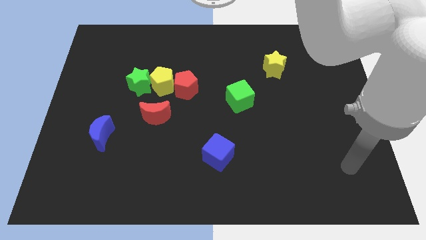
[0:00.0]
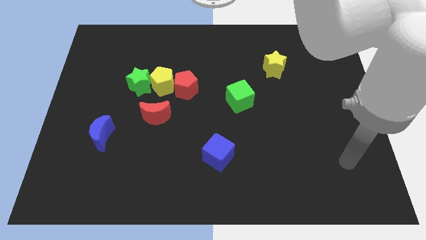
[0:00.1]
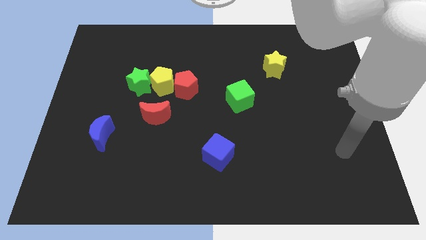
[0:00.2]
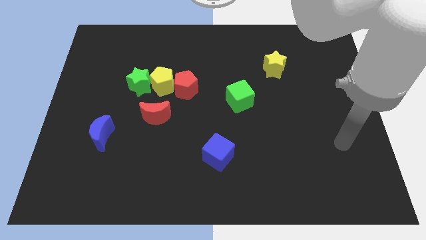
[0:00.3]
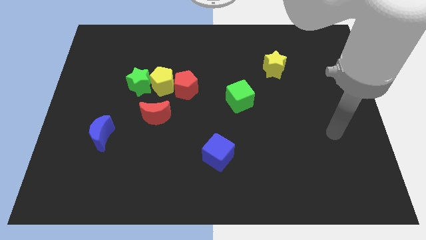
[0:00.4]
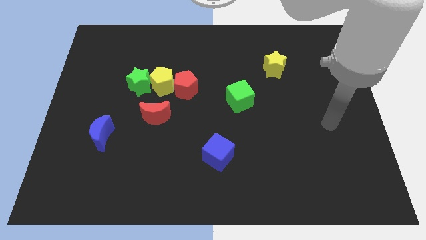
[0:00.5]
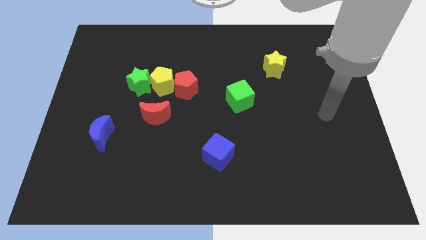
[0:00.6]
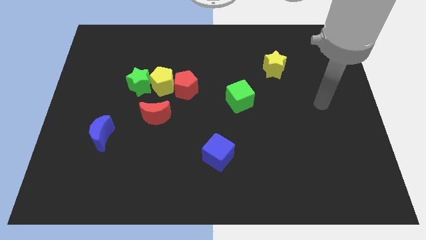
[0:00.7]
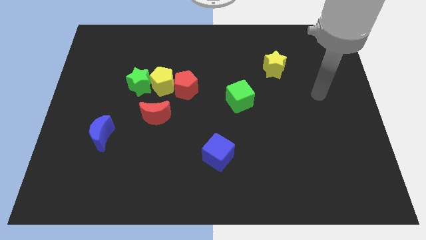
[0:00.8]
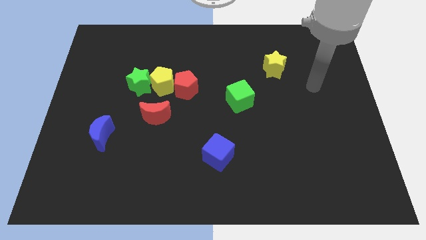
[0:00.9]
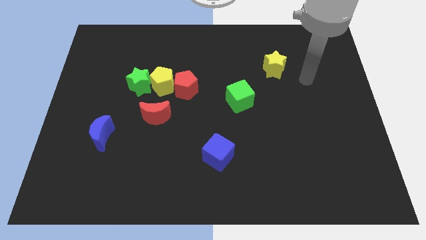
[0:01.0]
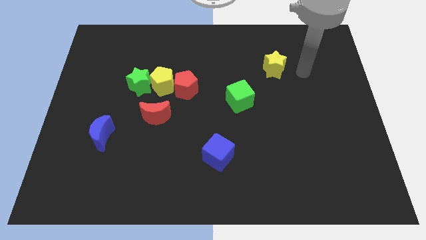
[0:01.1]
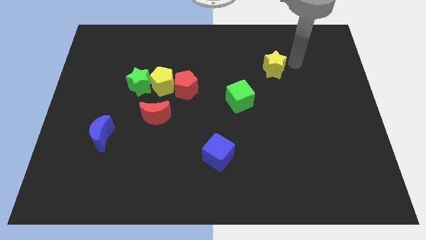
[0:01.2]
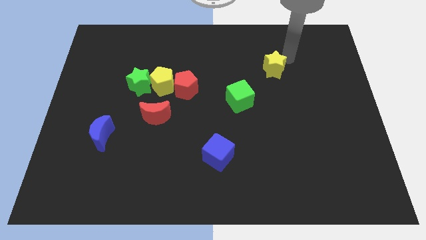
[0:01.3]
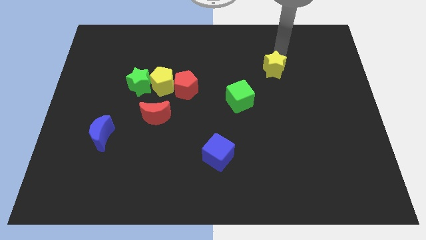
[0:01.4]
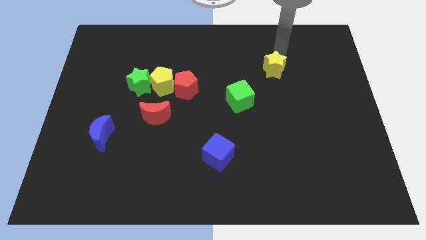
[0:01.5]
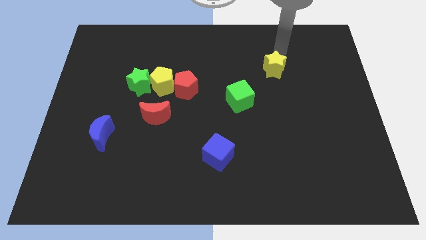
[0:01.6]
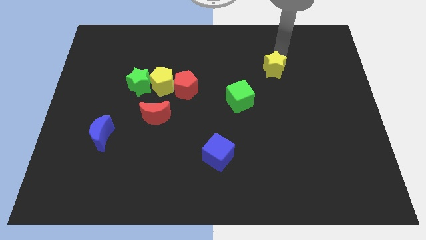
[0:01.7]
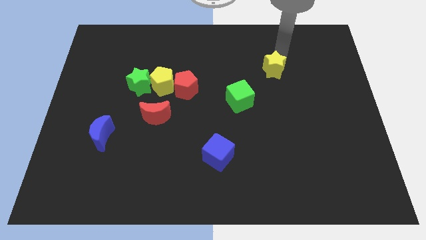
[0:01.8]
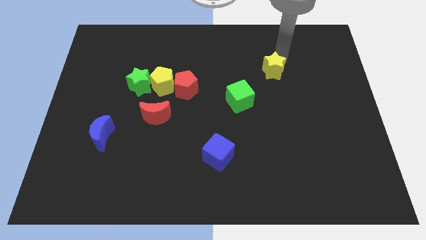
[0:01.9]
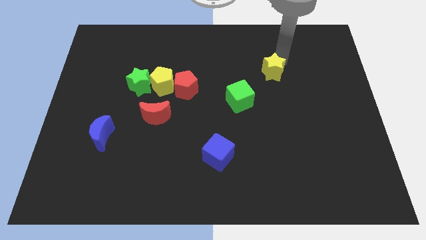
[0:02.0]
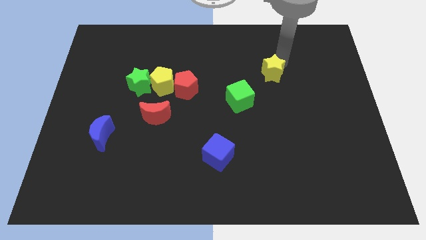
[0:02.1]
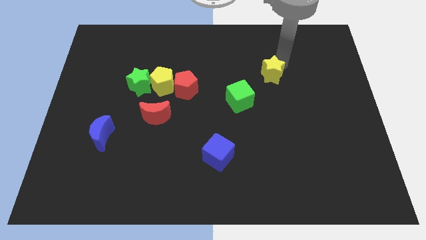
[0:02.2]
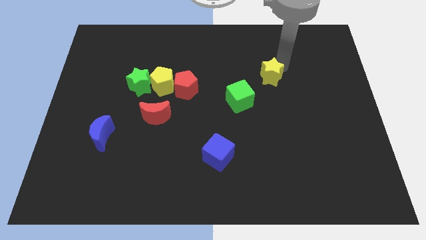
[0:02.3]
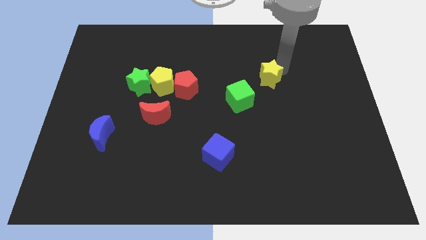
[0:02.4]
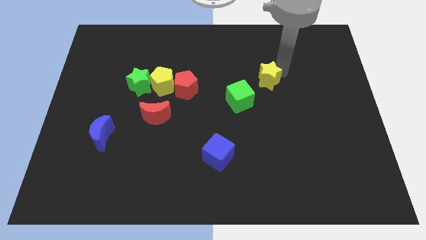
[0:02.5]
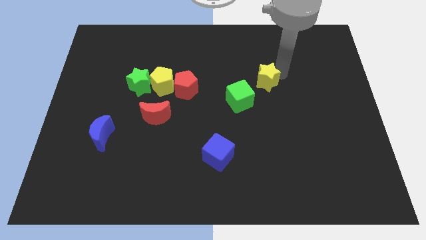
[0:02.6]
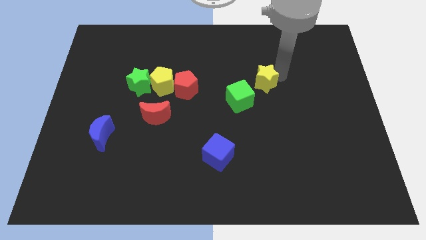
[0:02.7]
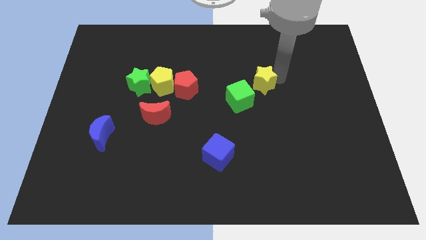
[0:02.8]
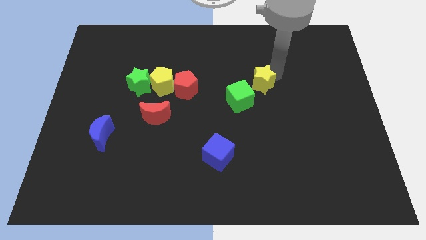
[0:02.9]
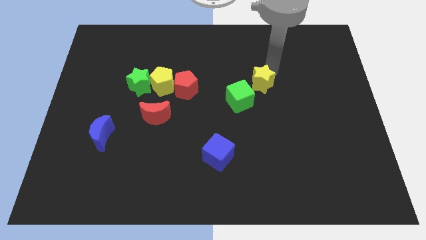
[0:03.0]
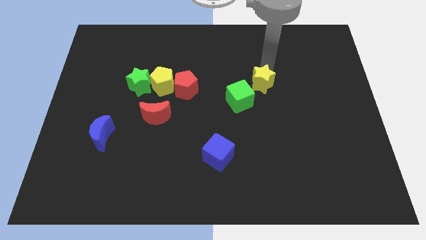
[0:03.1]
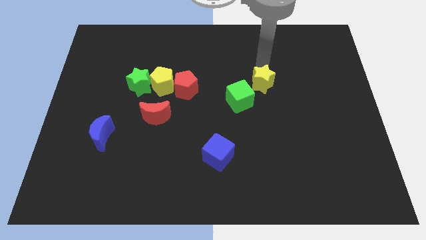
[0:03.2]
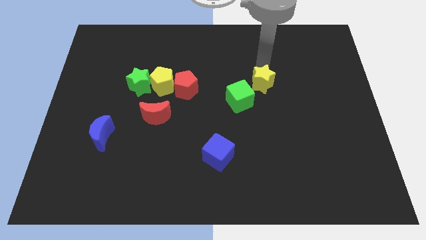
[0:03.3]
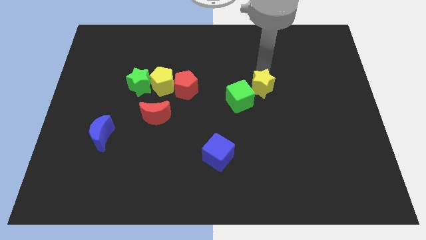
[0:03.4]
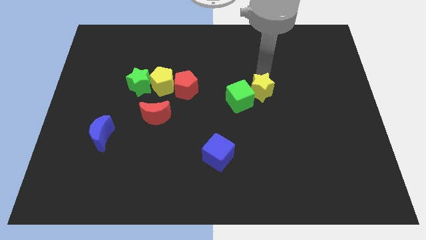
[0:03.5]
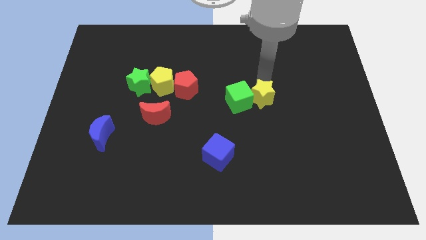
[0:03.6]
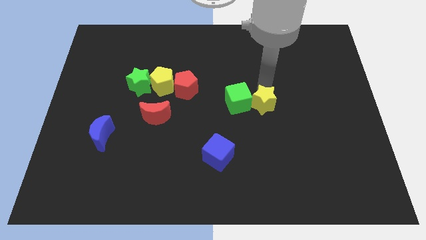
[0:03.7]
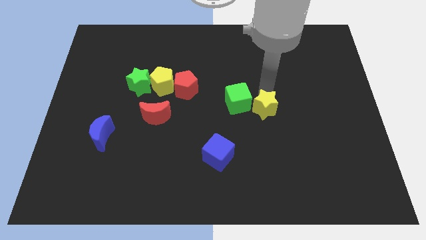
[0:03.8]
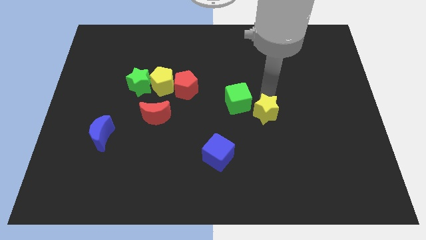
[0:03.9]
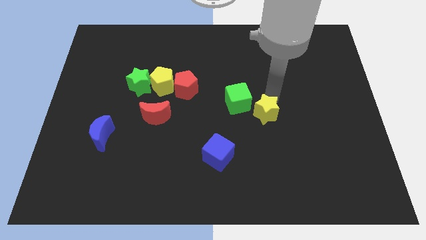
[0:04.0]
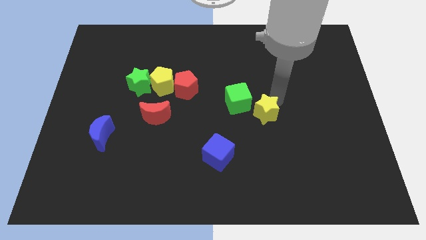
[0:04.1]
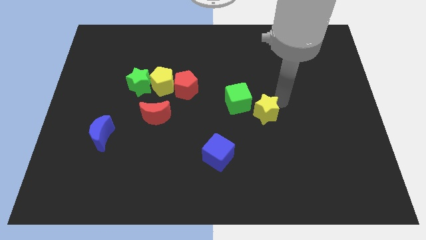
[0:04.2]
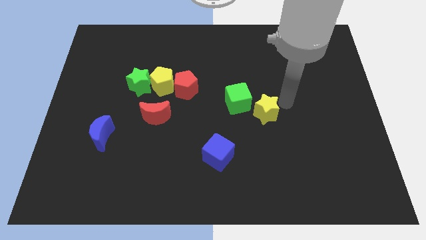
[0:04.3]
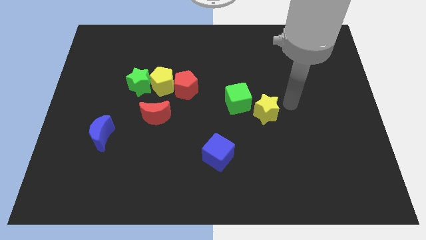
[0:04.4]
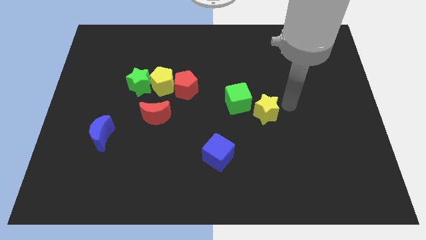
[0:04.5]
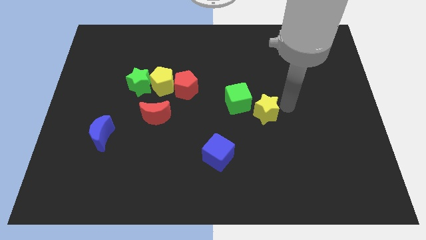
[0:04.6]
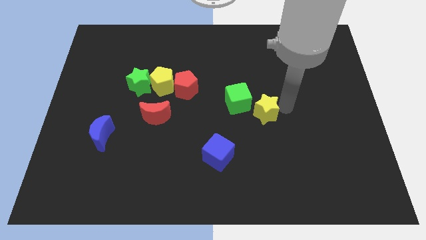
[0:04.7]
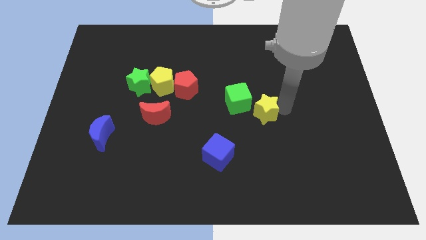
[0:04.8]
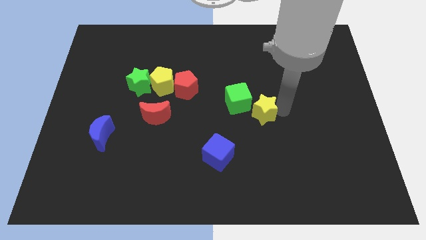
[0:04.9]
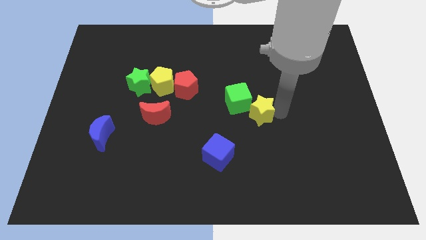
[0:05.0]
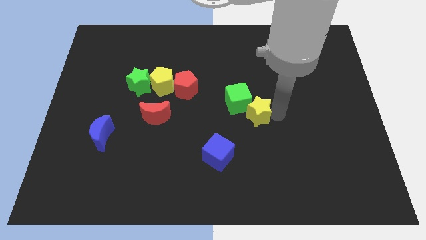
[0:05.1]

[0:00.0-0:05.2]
move the yellow star to the bottom of the green cube

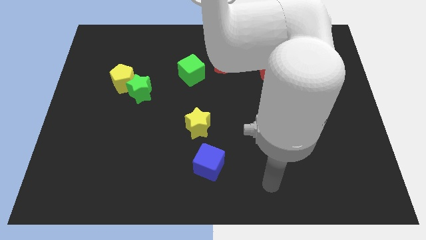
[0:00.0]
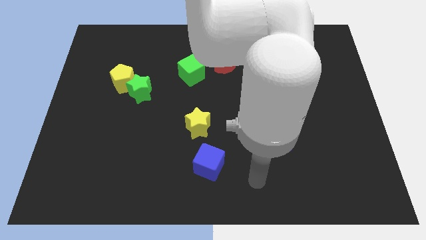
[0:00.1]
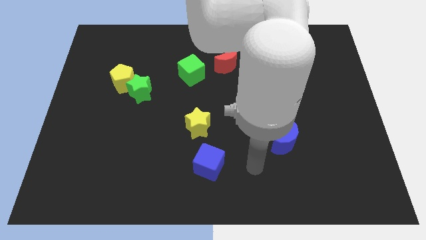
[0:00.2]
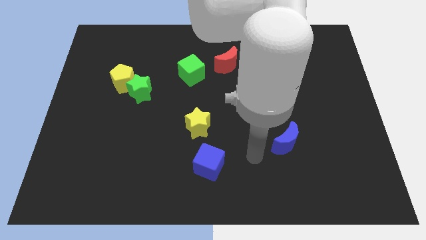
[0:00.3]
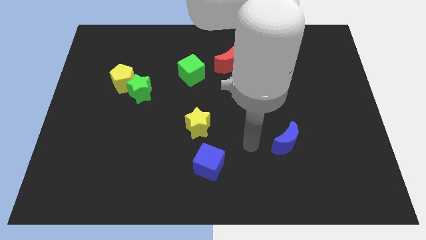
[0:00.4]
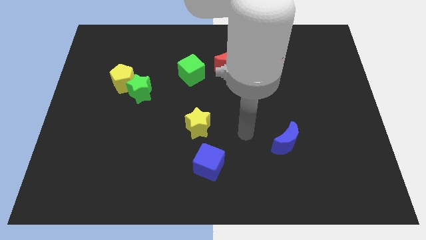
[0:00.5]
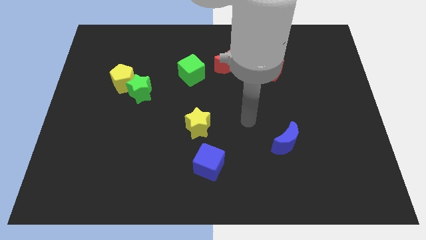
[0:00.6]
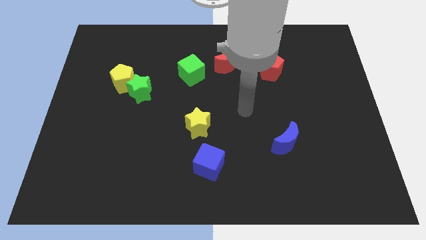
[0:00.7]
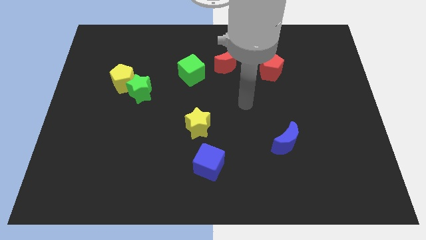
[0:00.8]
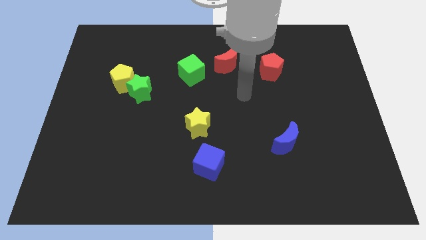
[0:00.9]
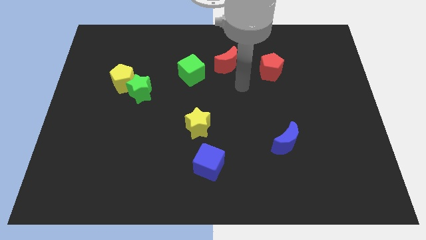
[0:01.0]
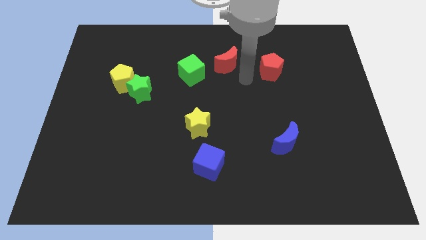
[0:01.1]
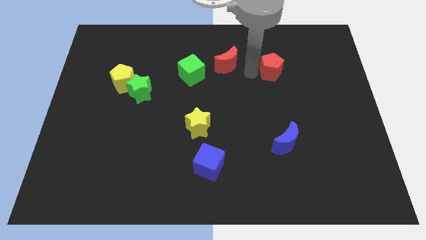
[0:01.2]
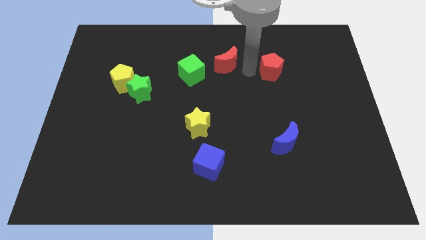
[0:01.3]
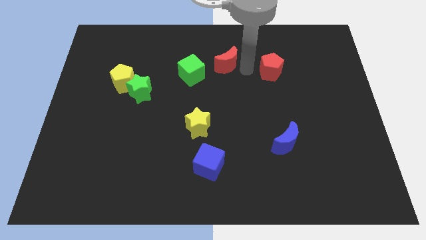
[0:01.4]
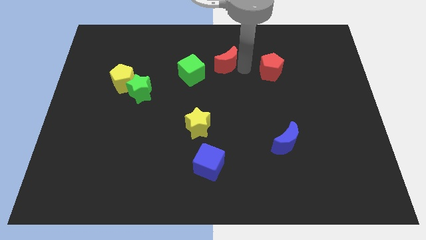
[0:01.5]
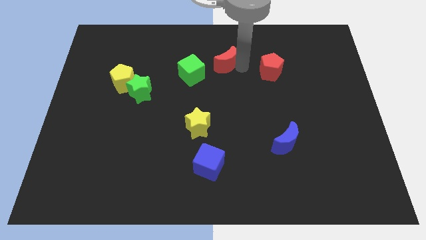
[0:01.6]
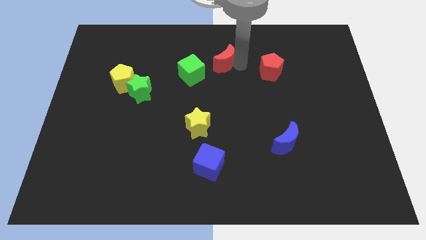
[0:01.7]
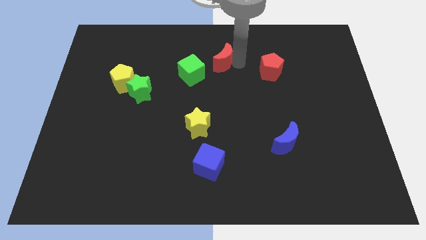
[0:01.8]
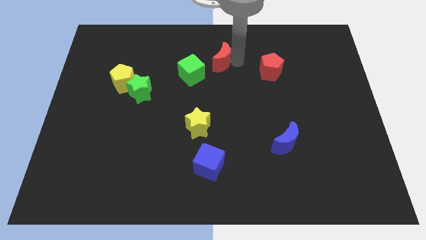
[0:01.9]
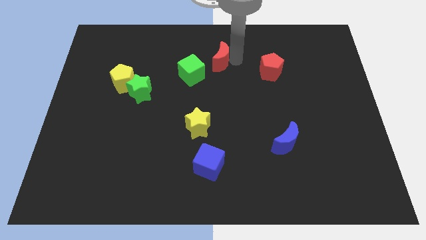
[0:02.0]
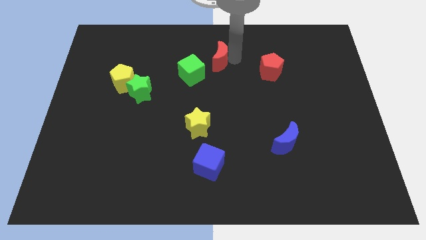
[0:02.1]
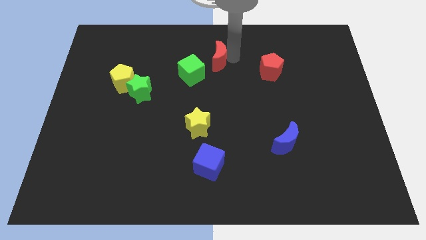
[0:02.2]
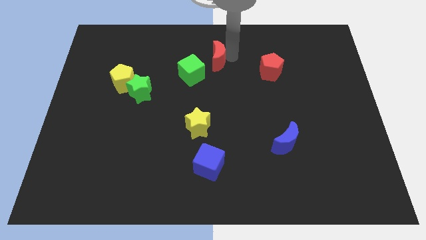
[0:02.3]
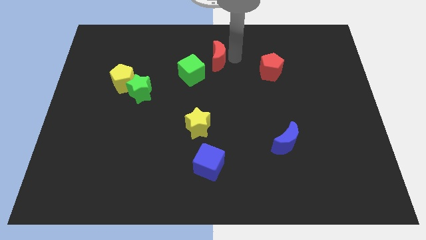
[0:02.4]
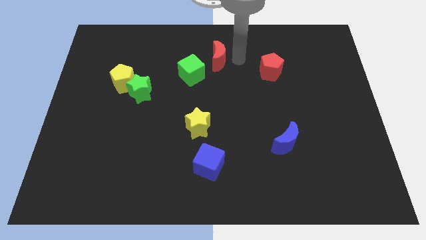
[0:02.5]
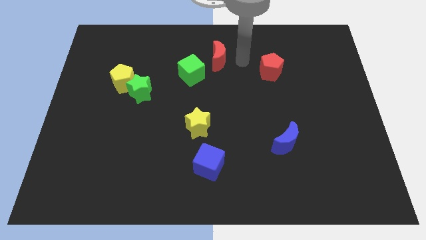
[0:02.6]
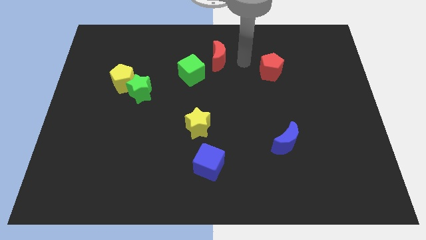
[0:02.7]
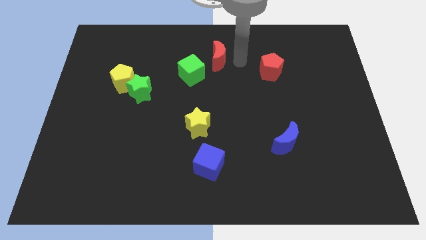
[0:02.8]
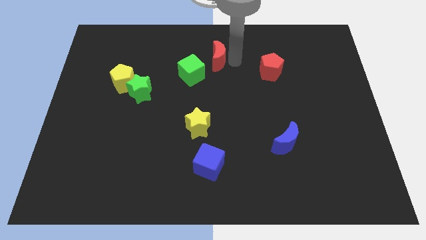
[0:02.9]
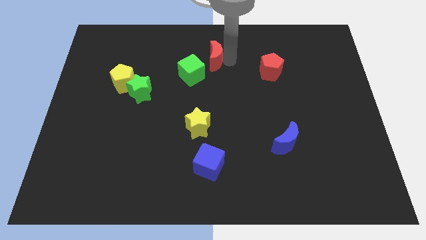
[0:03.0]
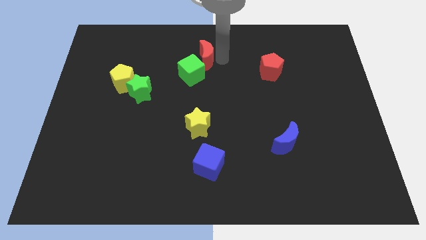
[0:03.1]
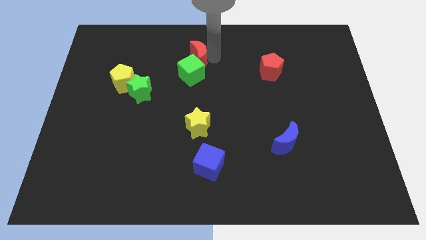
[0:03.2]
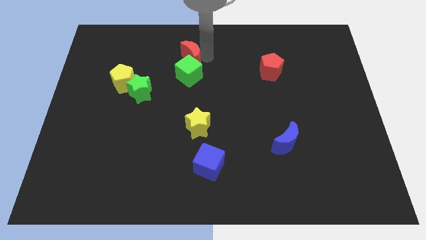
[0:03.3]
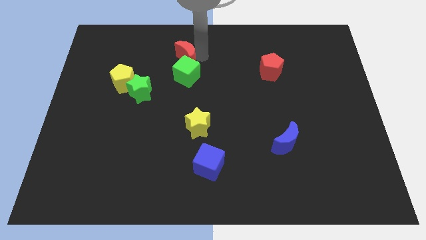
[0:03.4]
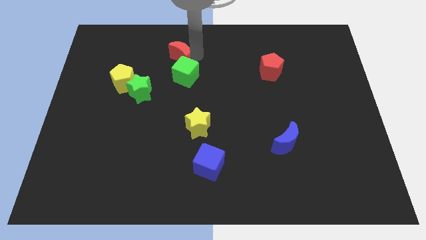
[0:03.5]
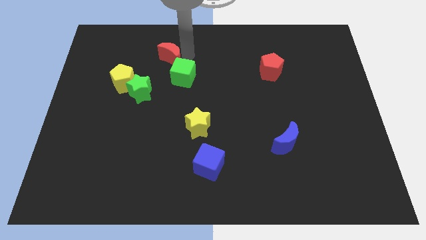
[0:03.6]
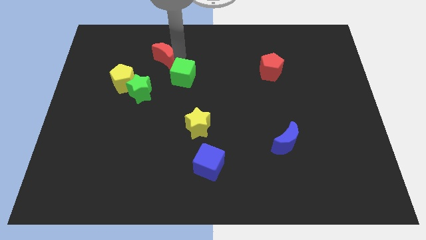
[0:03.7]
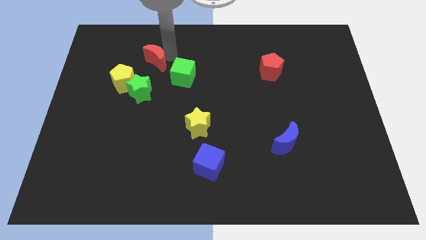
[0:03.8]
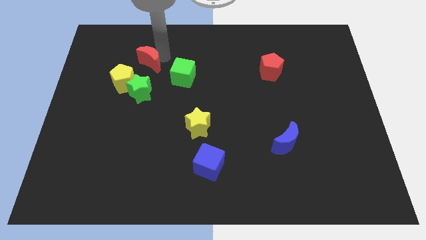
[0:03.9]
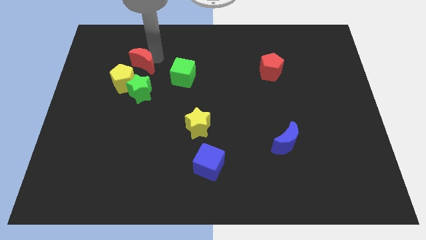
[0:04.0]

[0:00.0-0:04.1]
push the red moon to the left side of the green cube
